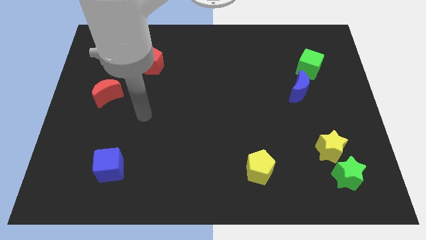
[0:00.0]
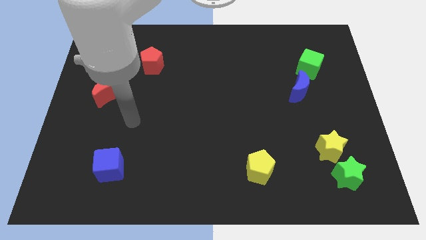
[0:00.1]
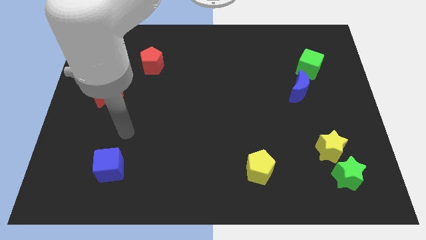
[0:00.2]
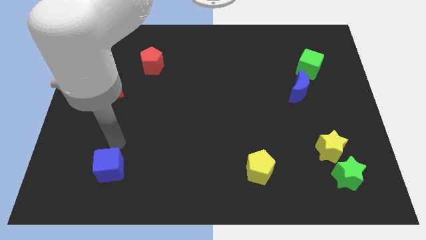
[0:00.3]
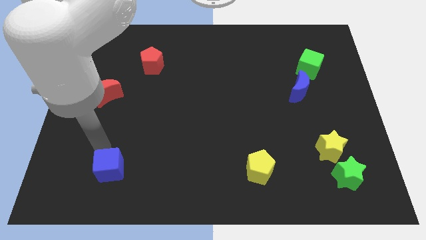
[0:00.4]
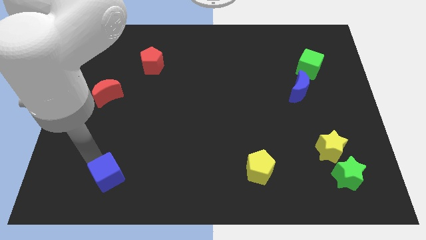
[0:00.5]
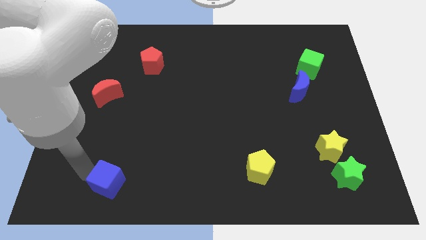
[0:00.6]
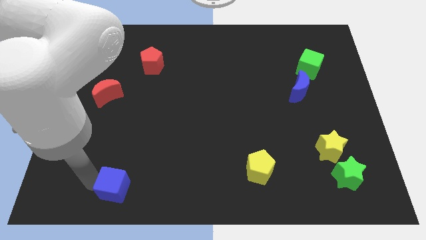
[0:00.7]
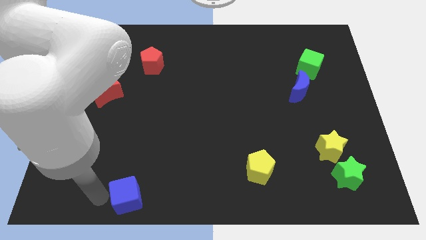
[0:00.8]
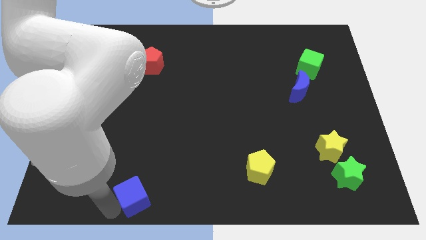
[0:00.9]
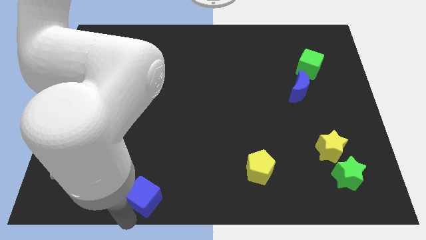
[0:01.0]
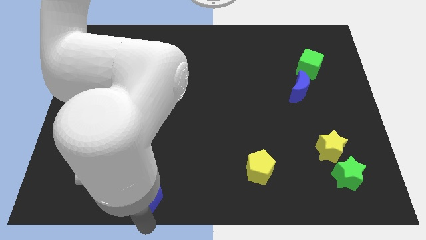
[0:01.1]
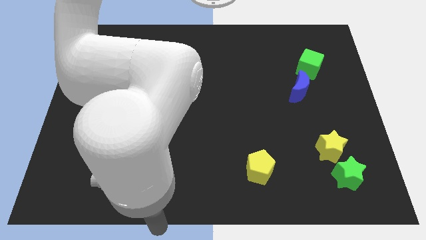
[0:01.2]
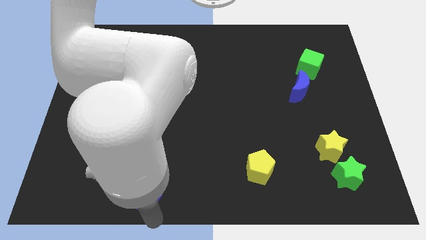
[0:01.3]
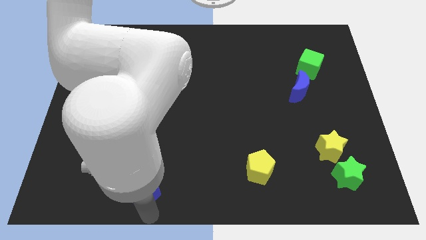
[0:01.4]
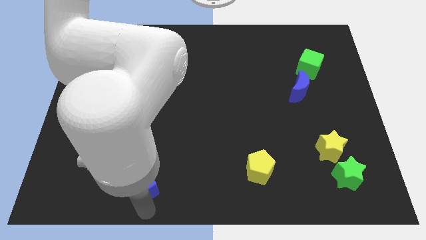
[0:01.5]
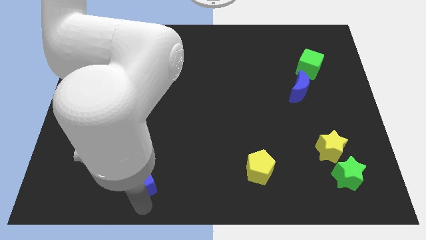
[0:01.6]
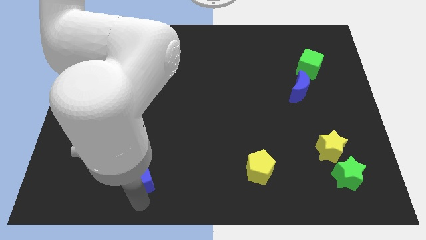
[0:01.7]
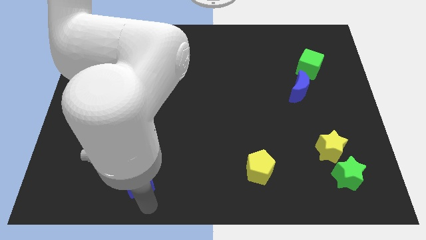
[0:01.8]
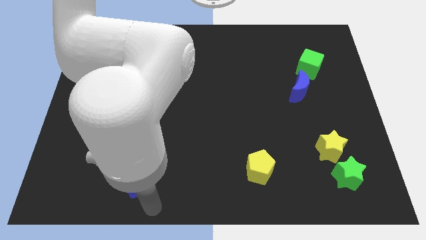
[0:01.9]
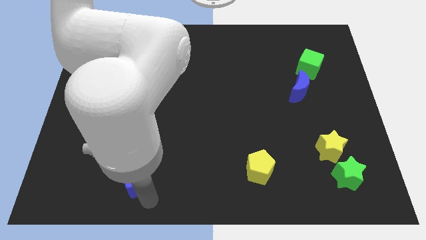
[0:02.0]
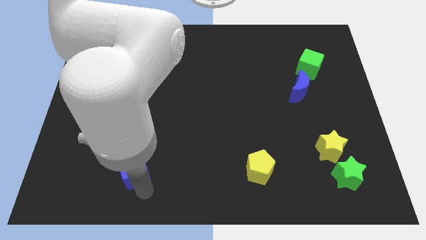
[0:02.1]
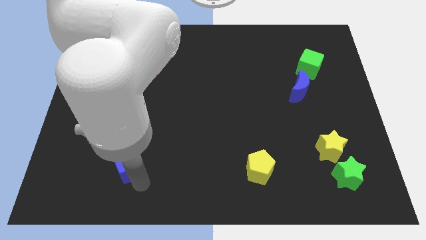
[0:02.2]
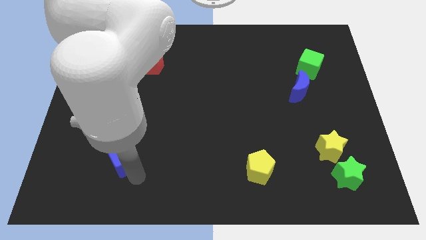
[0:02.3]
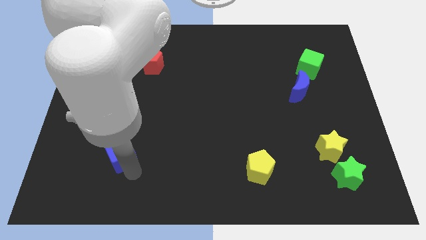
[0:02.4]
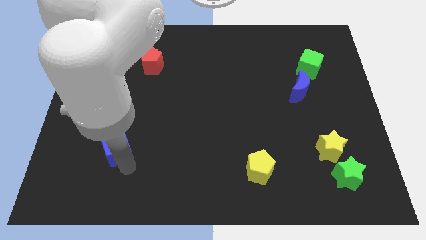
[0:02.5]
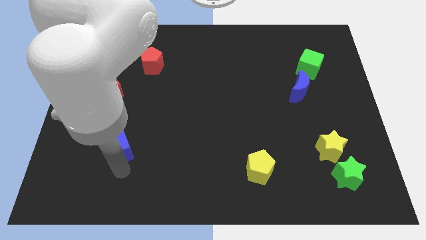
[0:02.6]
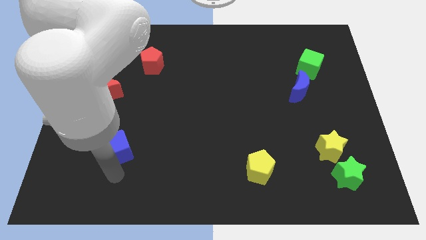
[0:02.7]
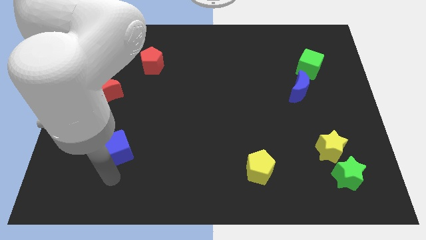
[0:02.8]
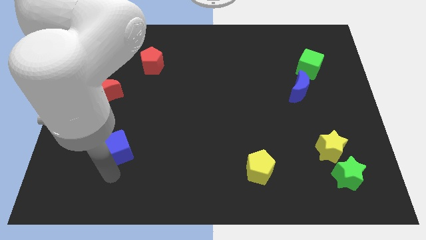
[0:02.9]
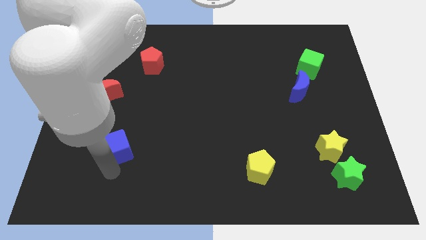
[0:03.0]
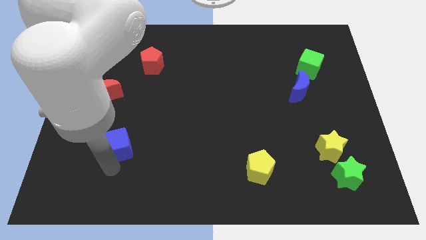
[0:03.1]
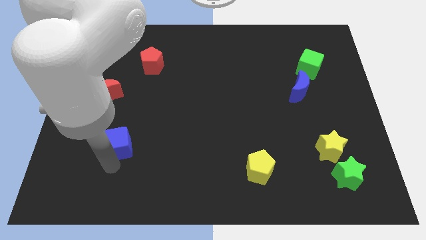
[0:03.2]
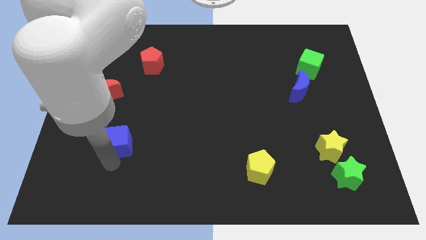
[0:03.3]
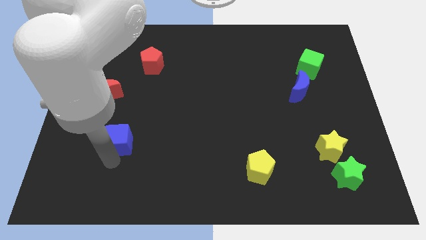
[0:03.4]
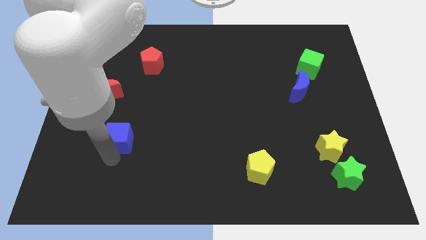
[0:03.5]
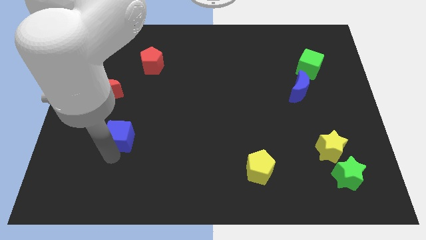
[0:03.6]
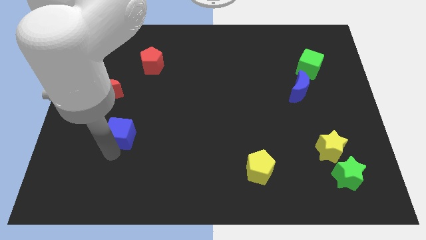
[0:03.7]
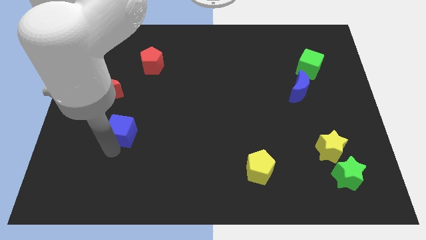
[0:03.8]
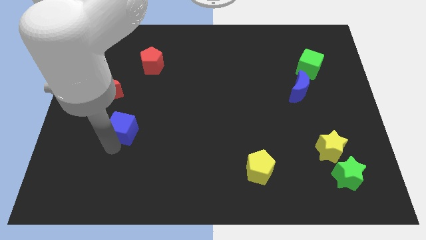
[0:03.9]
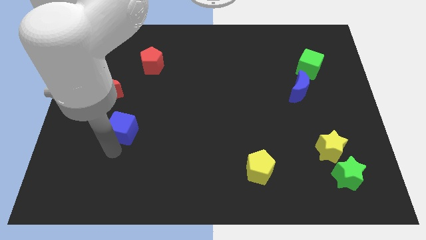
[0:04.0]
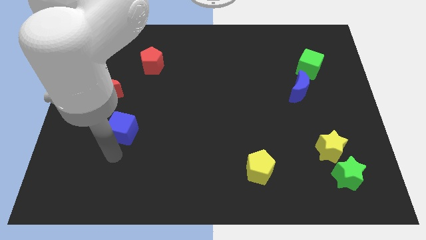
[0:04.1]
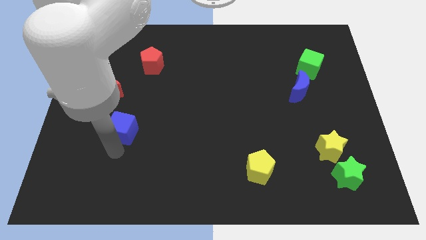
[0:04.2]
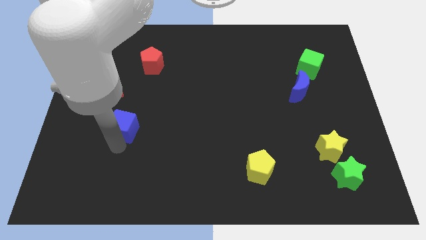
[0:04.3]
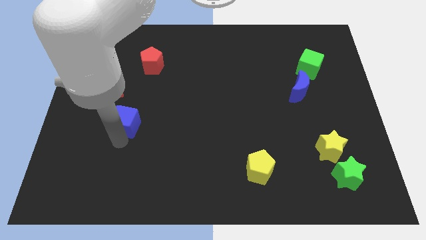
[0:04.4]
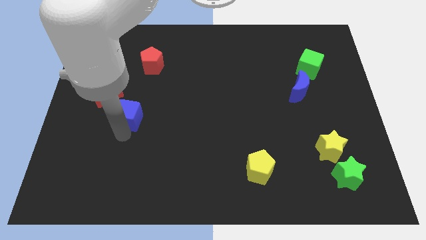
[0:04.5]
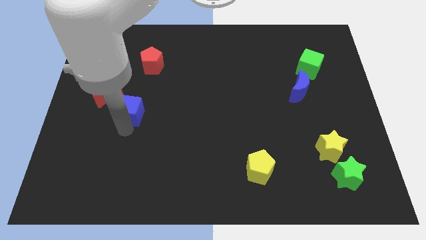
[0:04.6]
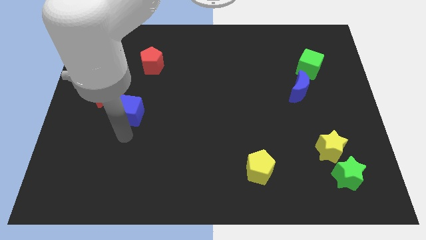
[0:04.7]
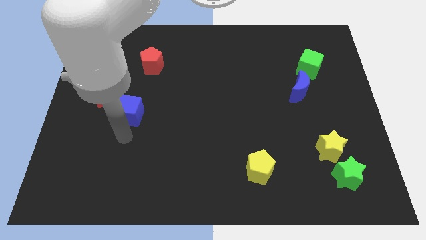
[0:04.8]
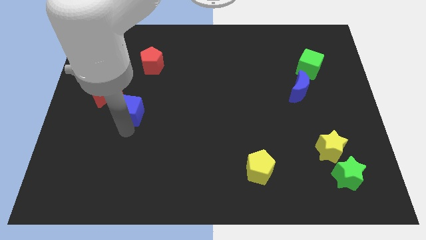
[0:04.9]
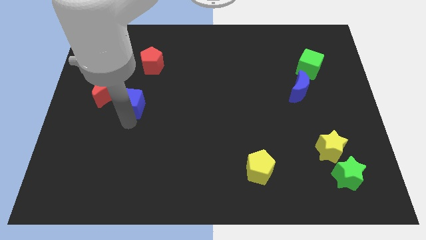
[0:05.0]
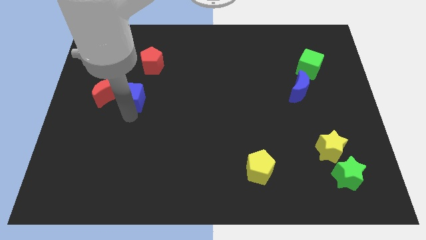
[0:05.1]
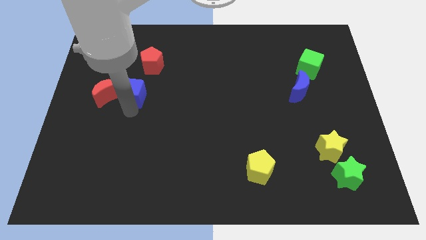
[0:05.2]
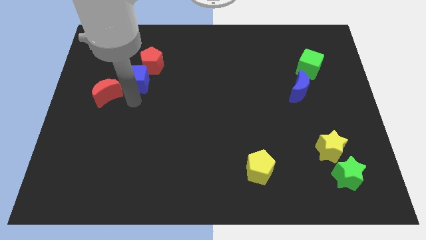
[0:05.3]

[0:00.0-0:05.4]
move the blue cube upwards

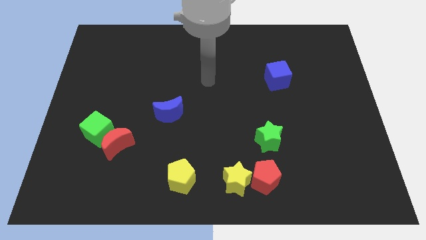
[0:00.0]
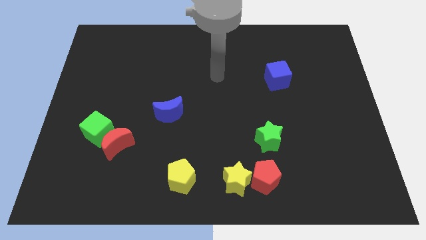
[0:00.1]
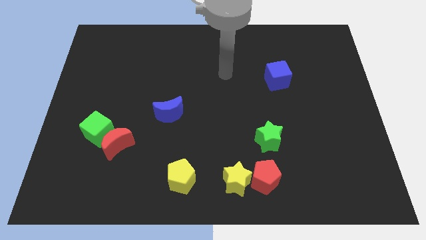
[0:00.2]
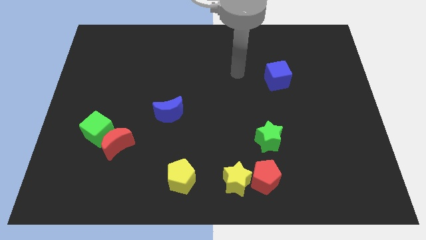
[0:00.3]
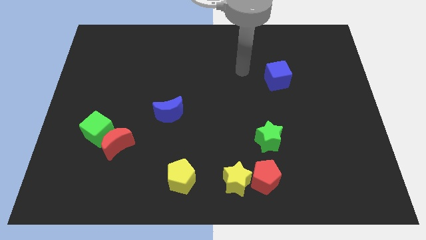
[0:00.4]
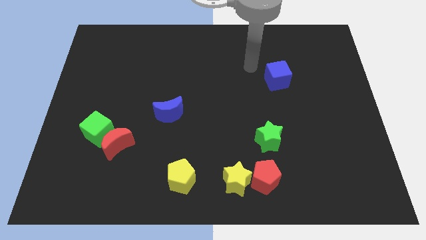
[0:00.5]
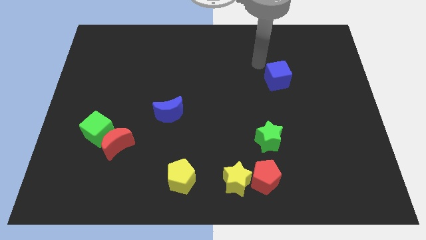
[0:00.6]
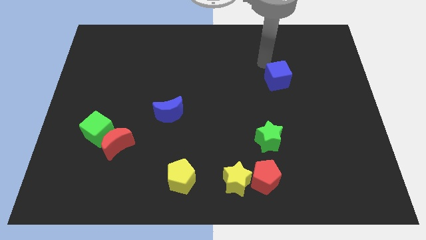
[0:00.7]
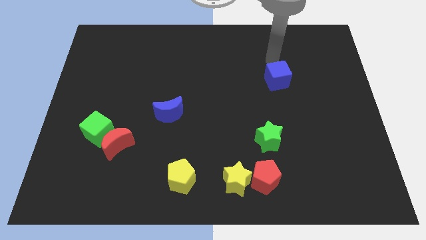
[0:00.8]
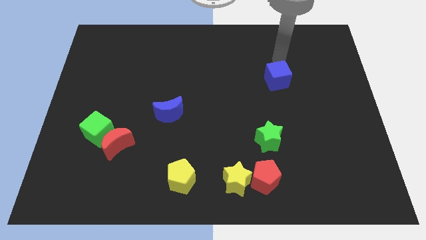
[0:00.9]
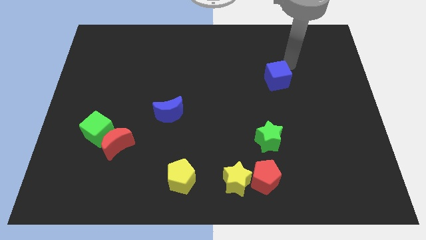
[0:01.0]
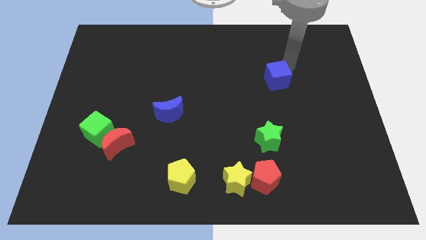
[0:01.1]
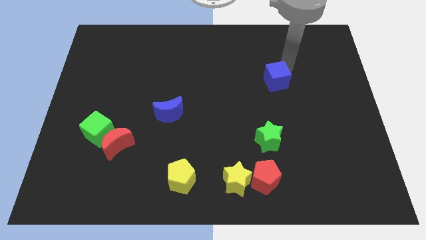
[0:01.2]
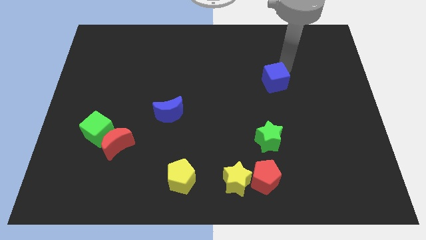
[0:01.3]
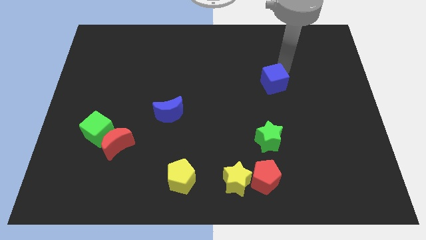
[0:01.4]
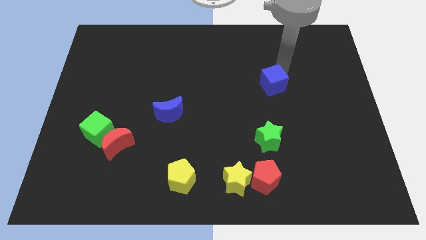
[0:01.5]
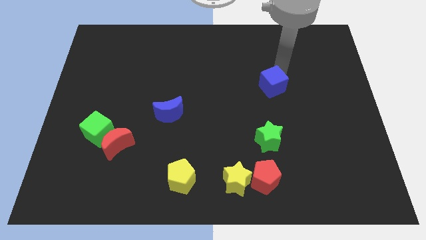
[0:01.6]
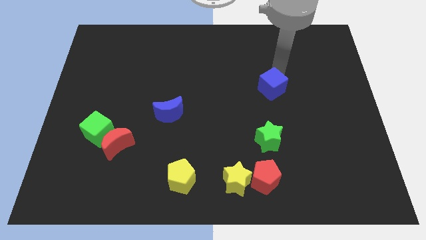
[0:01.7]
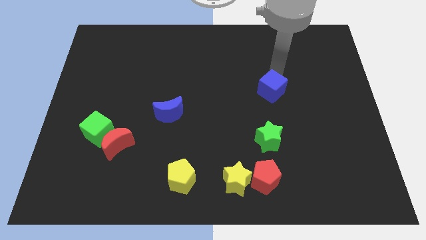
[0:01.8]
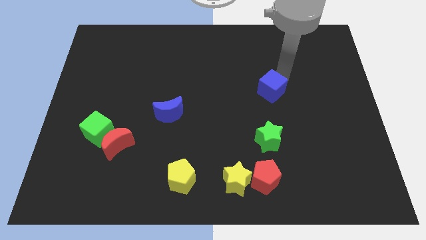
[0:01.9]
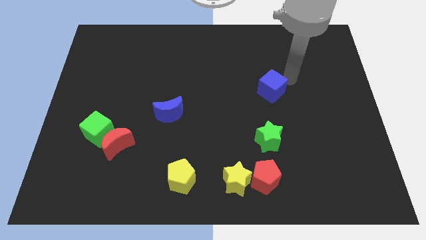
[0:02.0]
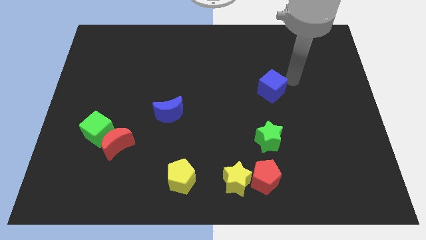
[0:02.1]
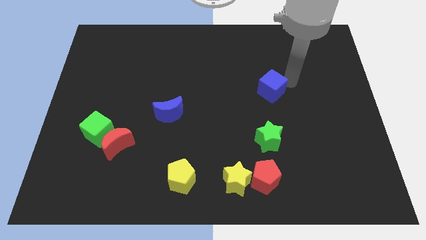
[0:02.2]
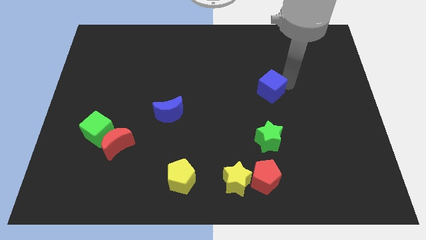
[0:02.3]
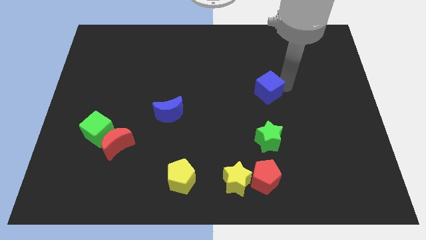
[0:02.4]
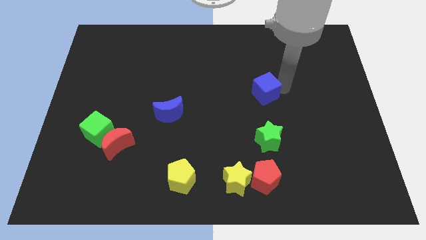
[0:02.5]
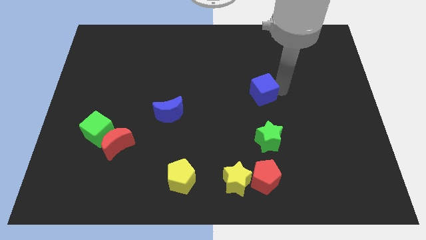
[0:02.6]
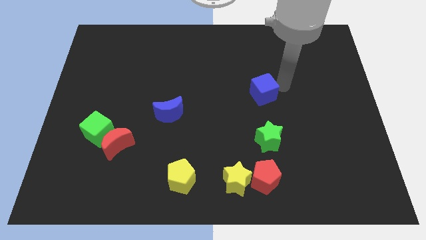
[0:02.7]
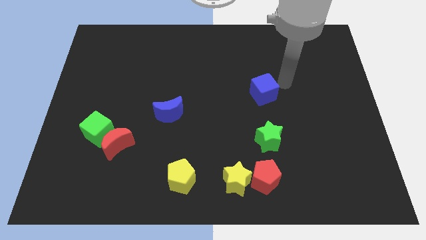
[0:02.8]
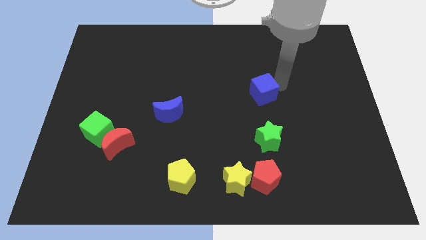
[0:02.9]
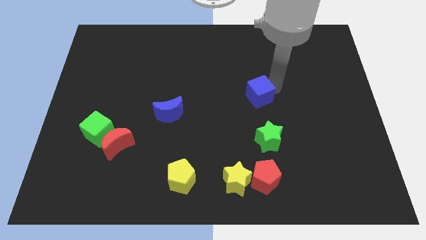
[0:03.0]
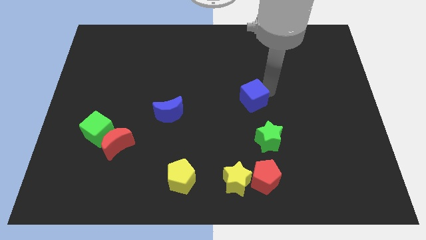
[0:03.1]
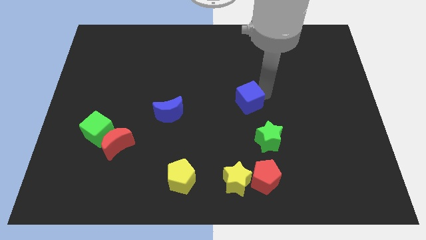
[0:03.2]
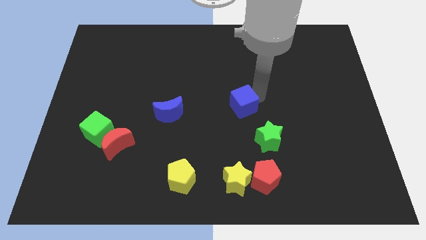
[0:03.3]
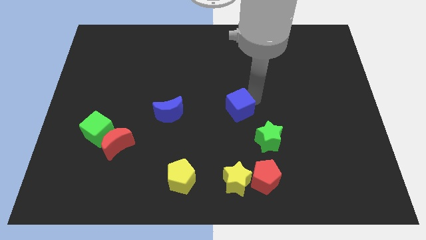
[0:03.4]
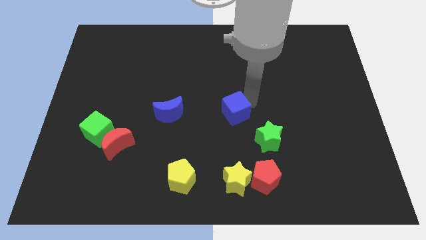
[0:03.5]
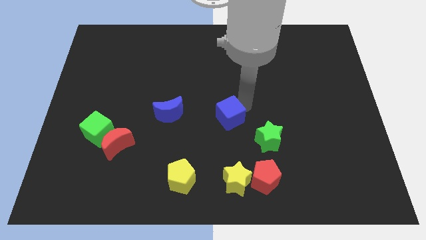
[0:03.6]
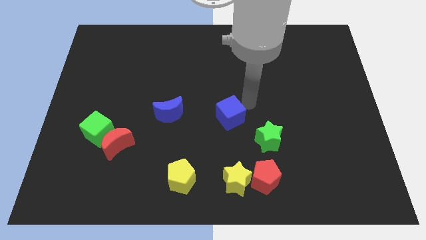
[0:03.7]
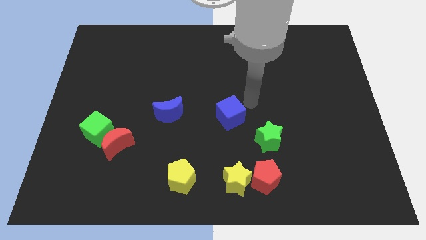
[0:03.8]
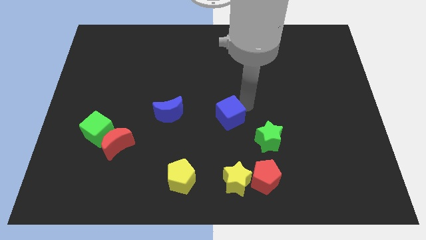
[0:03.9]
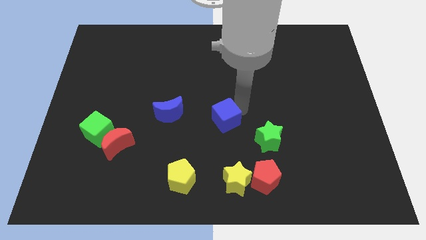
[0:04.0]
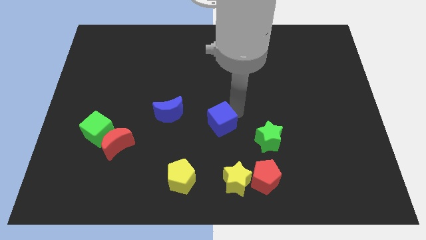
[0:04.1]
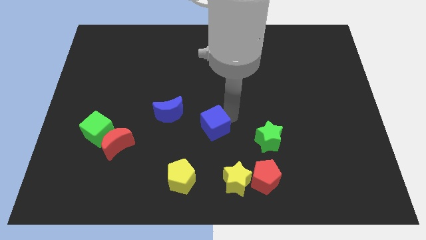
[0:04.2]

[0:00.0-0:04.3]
move the blue cube downwards and then left
